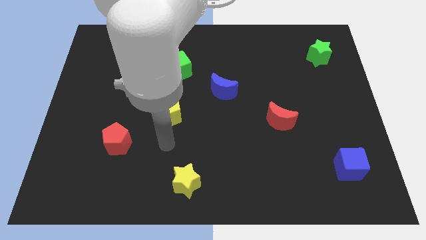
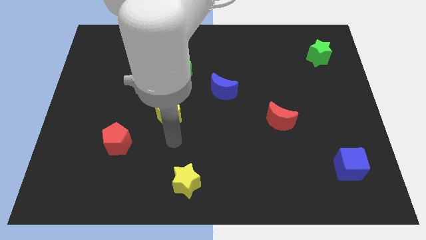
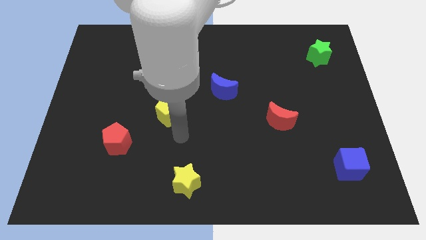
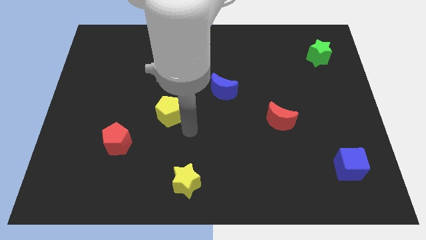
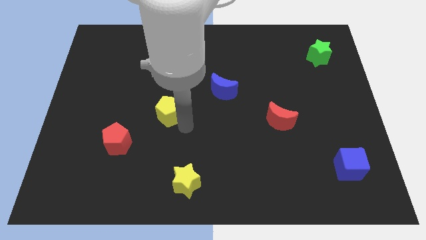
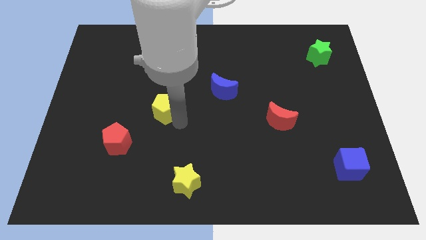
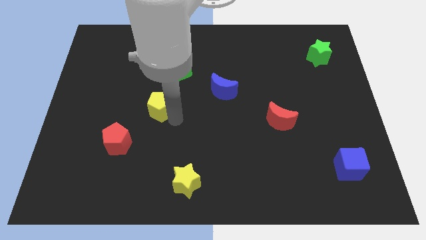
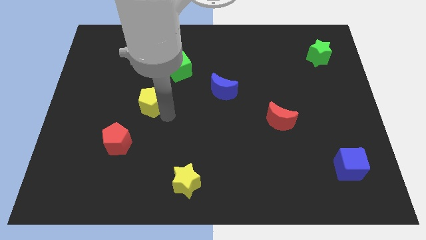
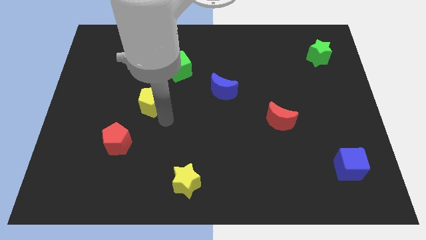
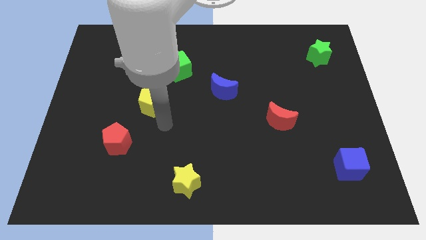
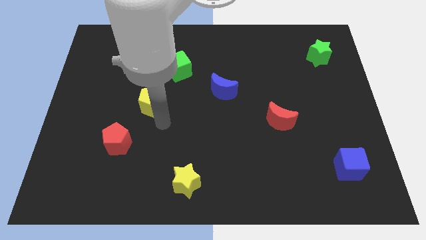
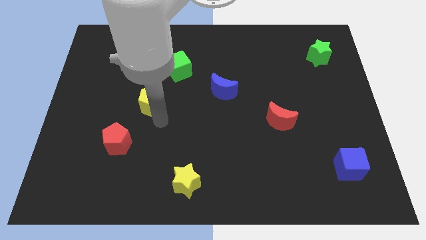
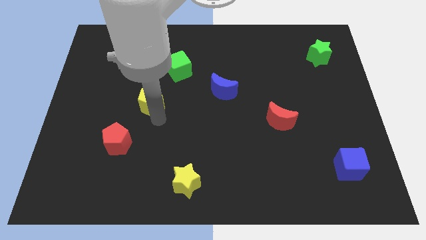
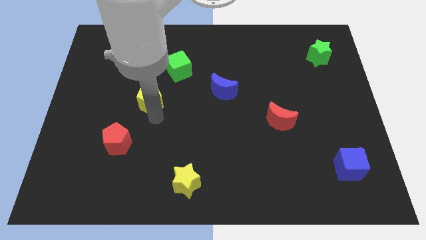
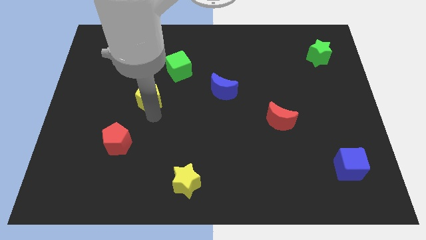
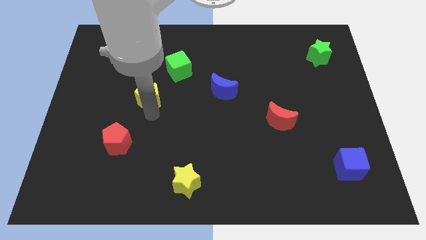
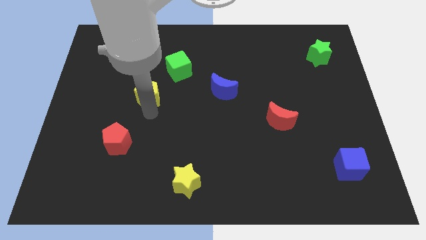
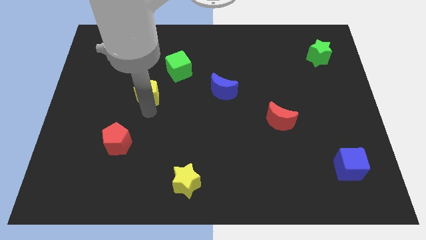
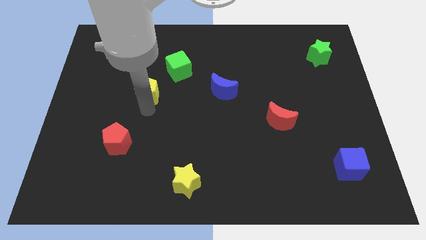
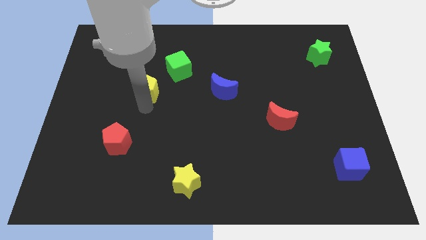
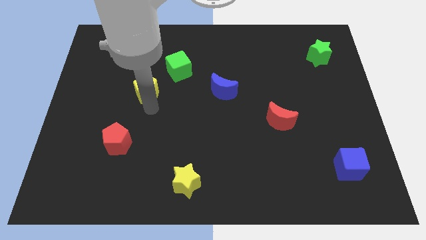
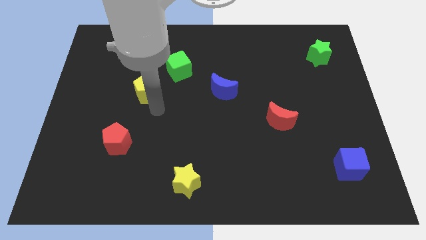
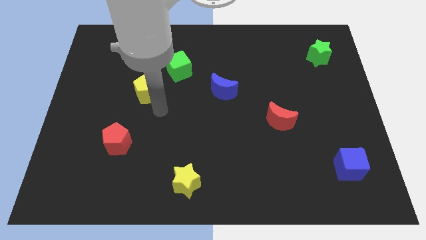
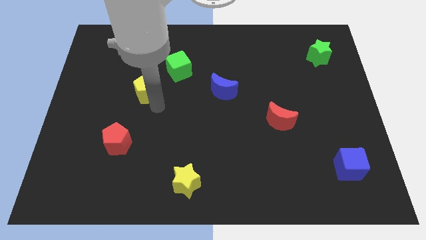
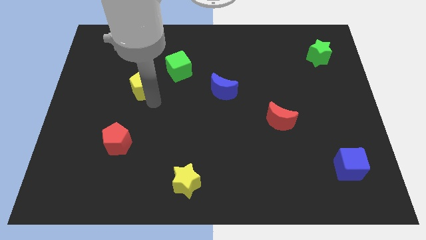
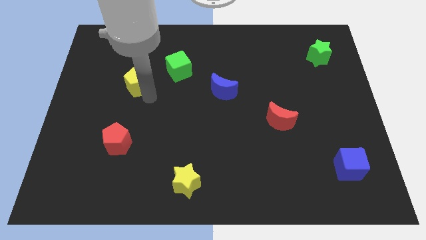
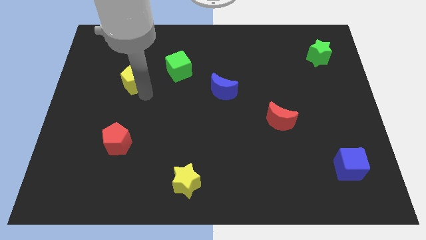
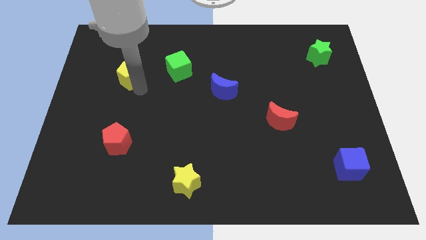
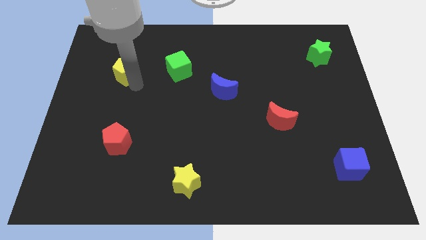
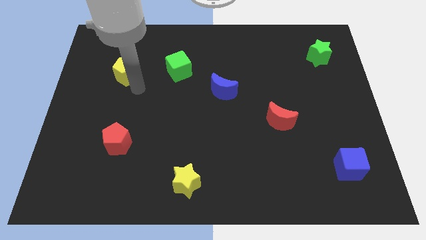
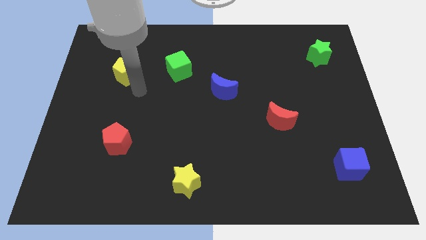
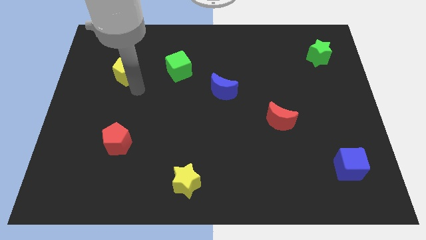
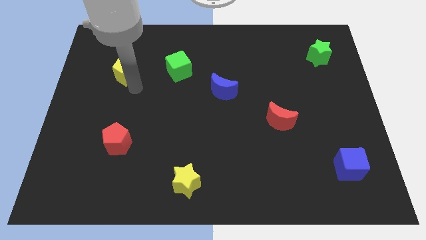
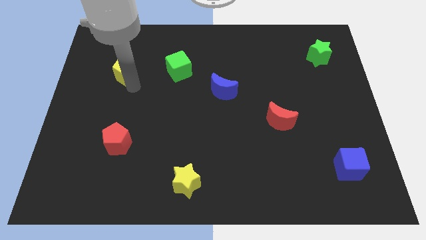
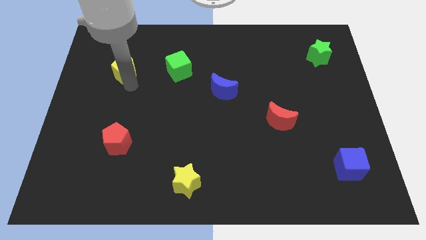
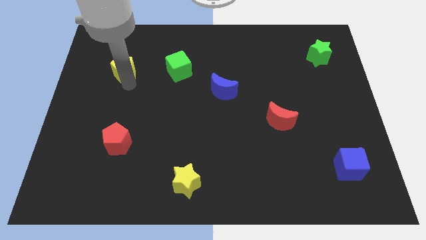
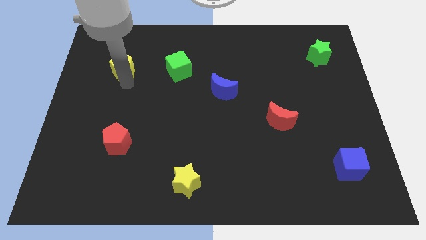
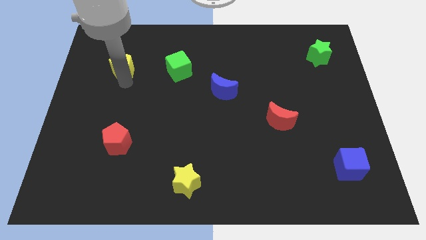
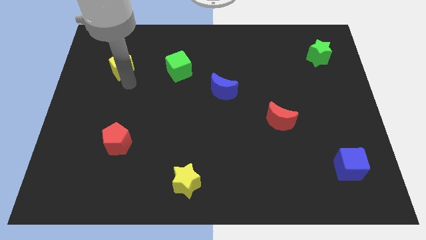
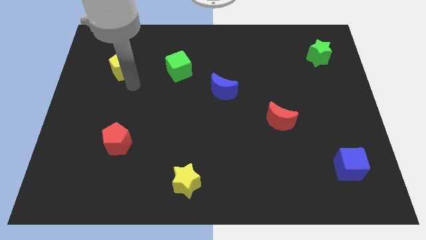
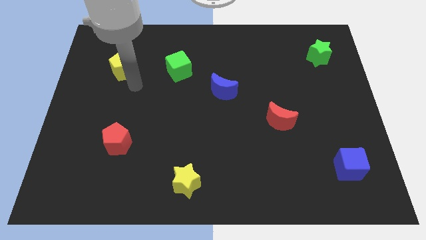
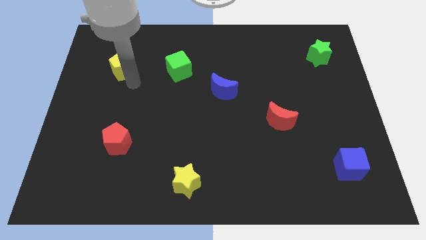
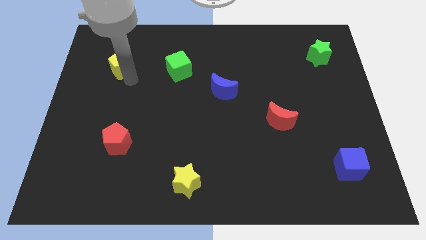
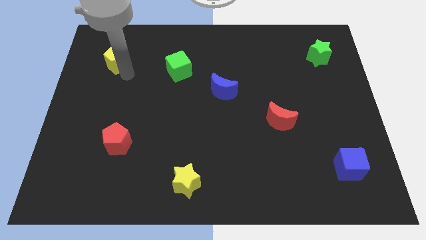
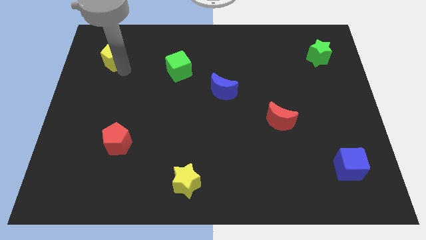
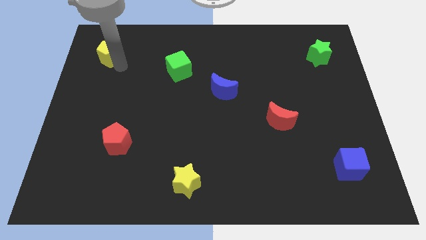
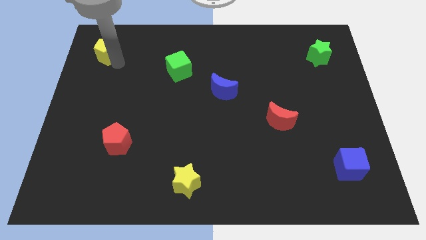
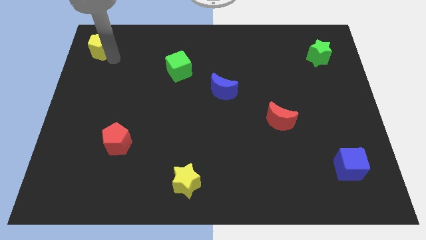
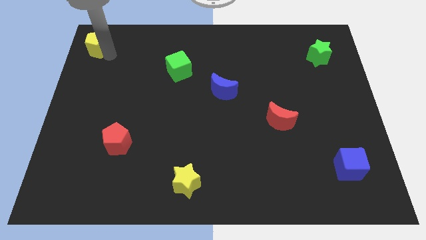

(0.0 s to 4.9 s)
slide the yellow pentagon to the upper left corner

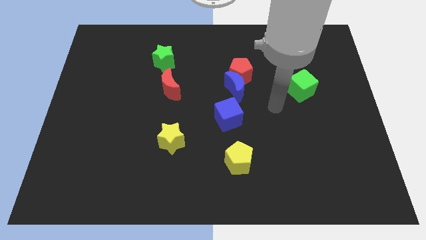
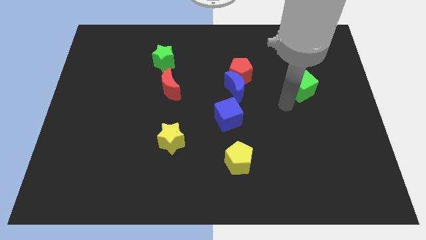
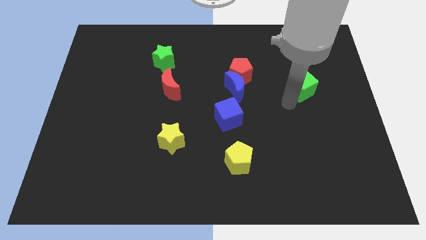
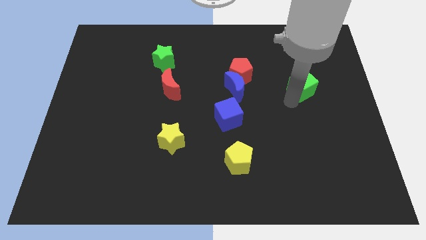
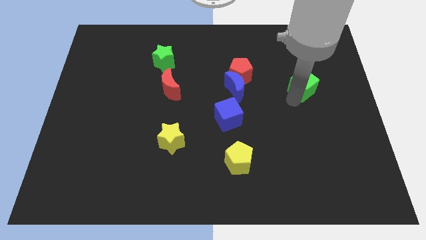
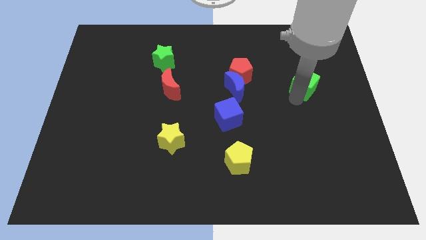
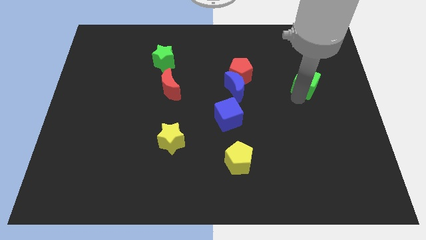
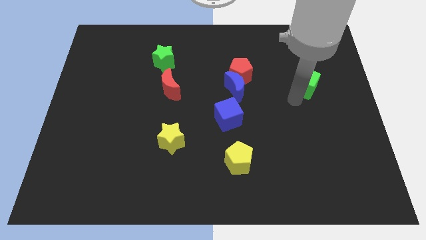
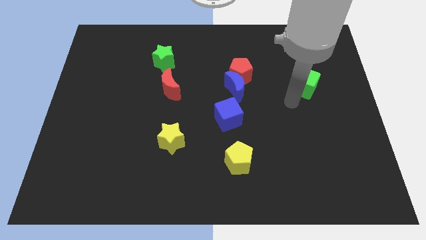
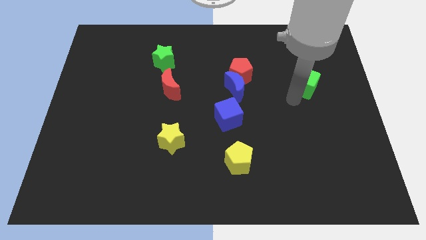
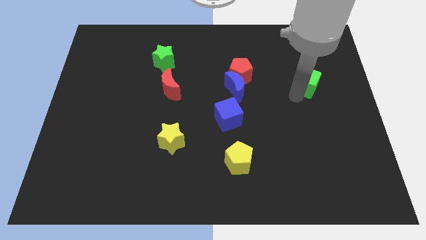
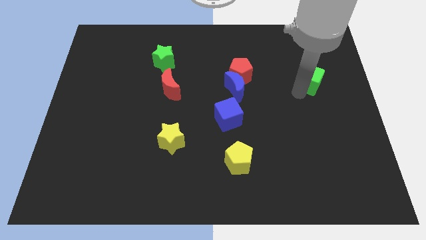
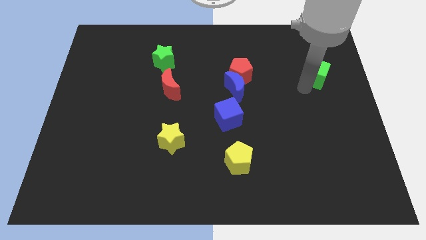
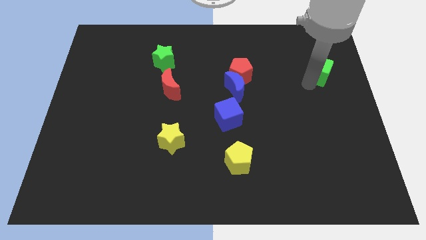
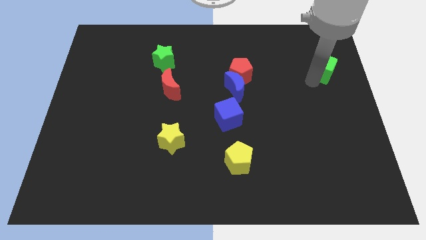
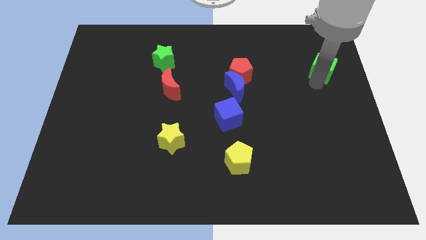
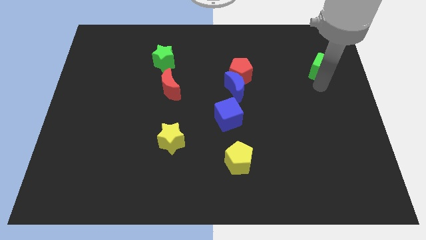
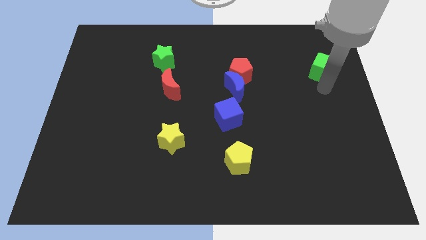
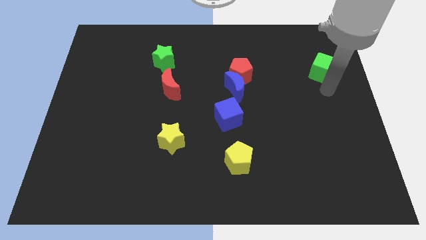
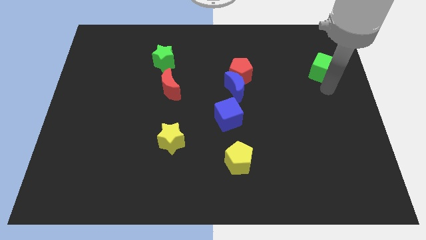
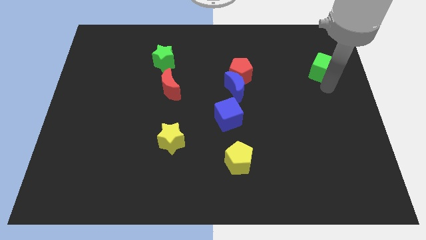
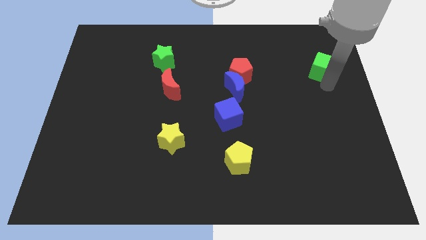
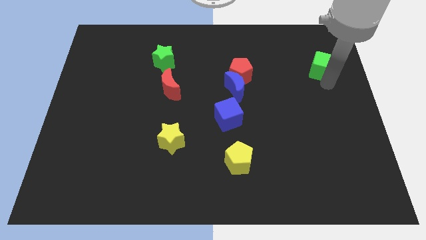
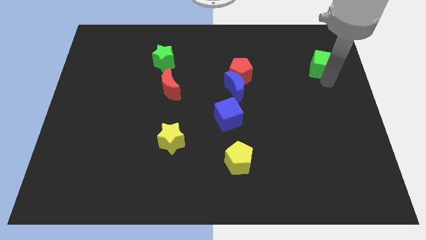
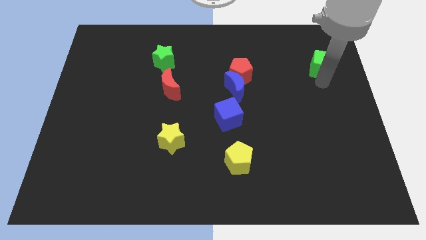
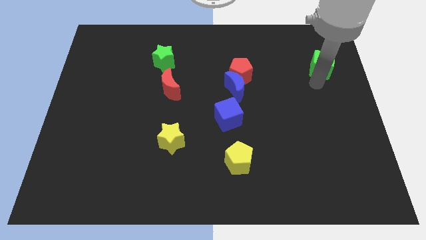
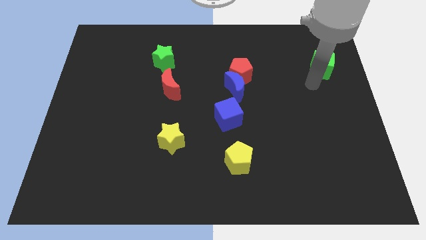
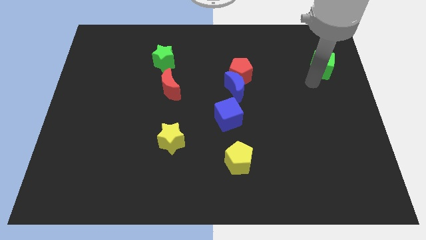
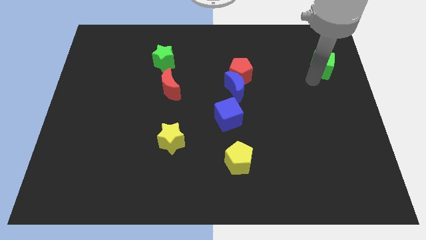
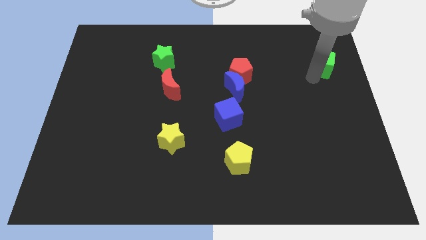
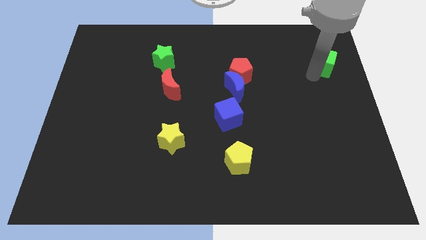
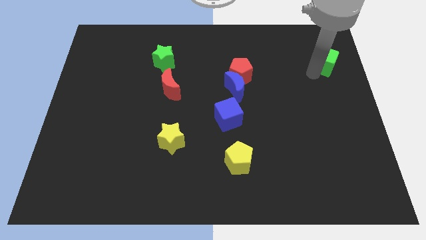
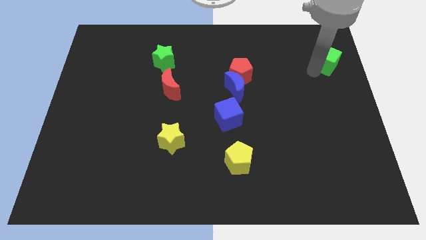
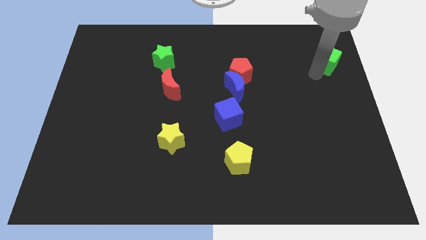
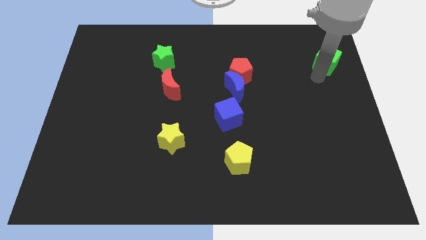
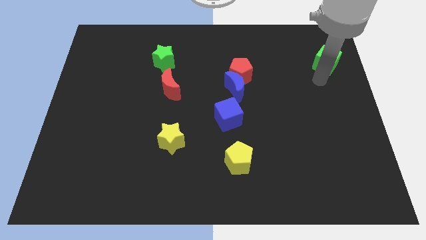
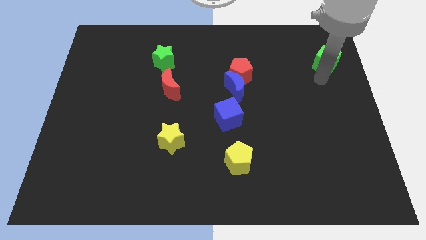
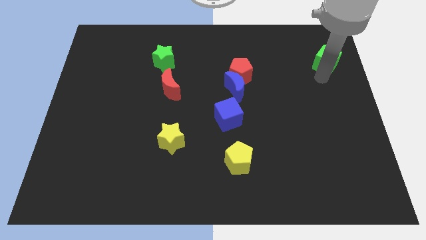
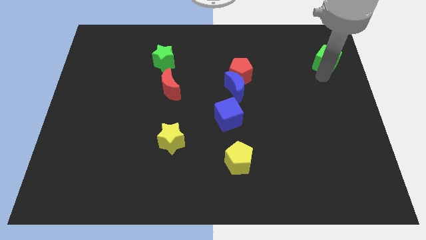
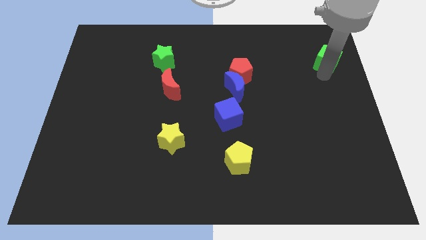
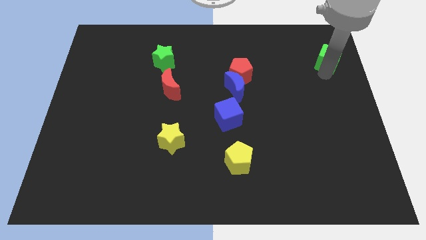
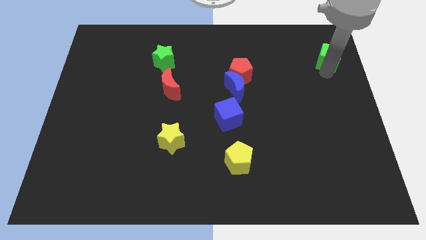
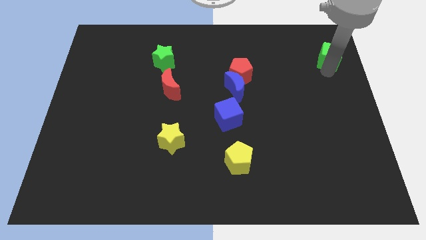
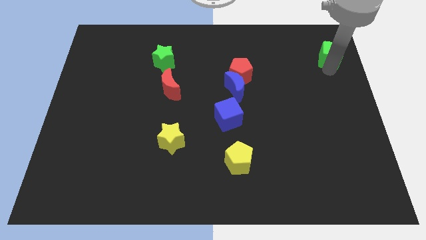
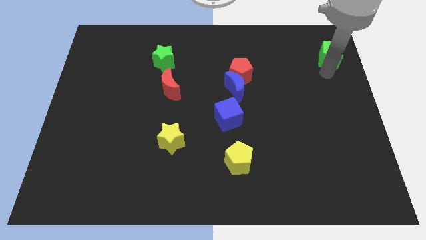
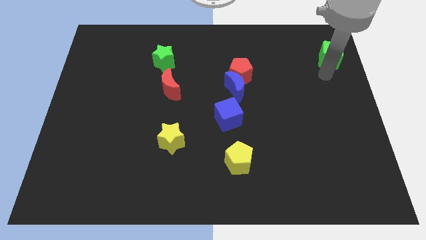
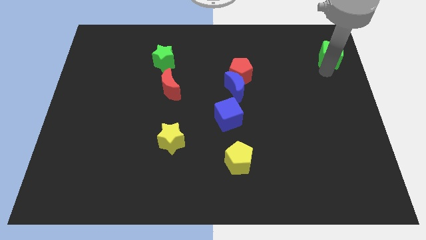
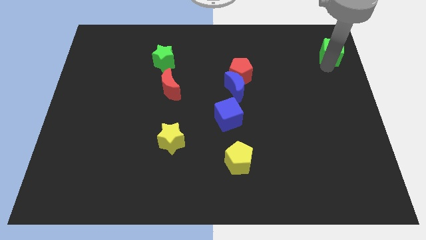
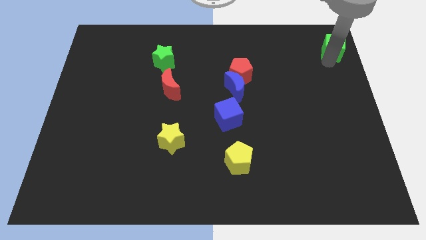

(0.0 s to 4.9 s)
move the green cube to the top right corner
